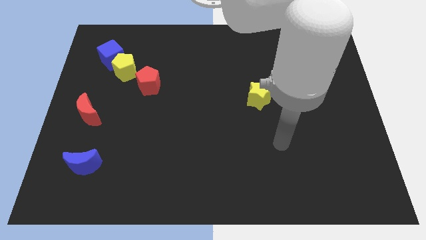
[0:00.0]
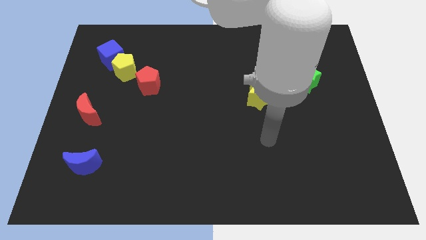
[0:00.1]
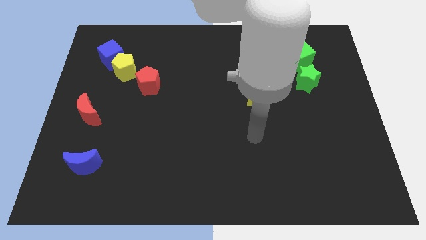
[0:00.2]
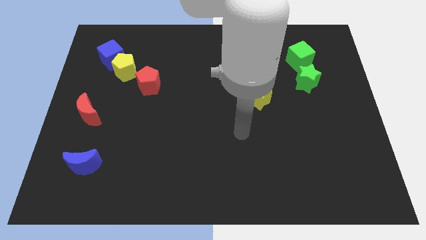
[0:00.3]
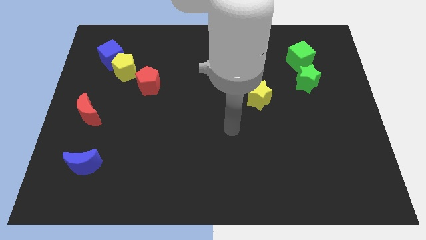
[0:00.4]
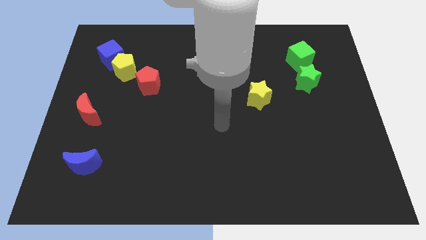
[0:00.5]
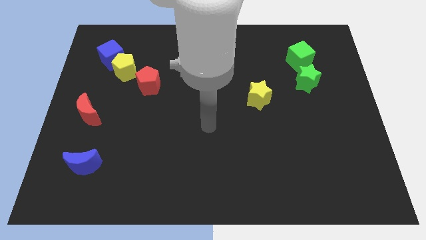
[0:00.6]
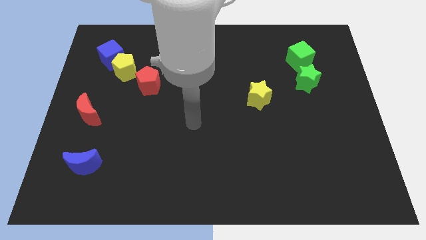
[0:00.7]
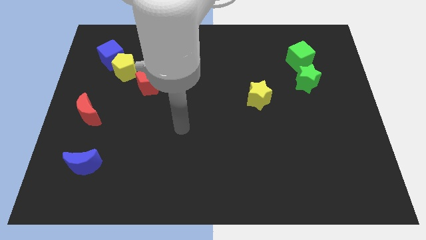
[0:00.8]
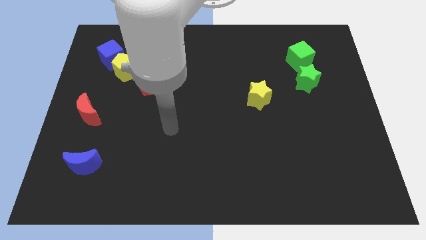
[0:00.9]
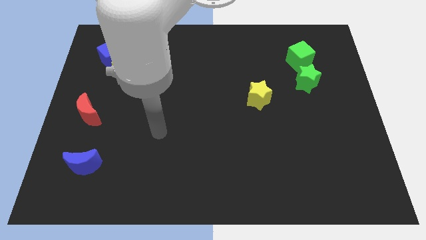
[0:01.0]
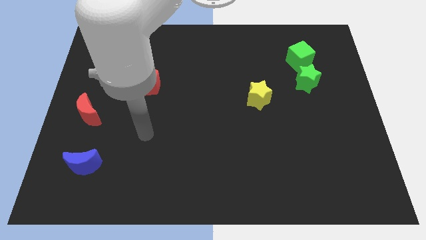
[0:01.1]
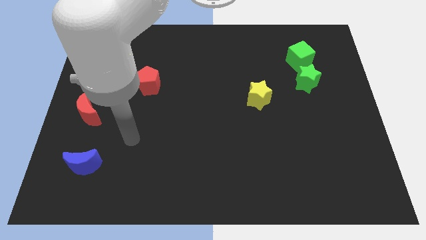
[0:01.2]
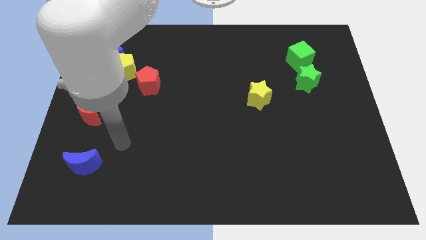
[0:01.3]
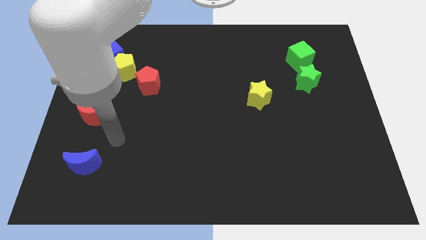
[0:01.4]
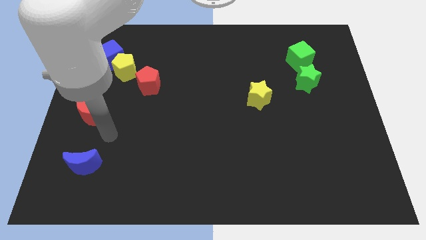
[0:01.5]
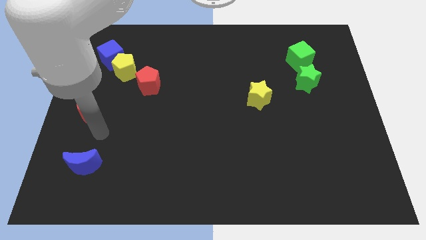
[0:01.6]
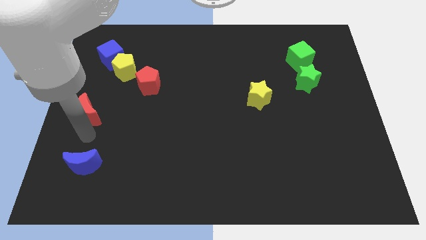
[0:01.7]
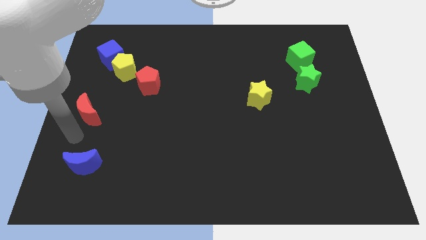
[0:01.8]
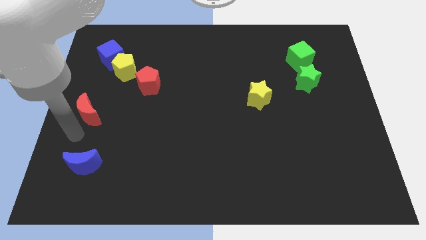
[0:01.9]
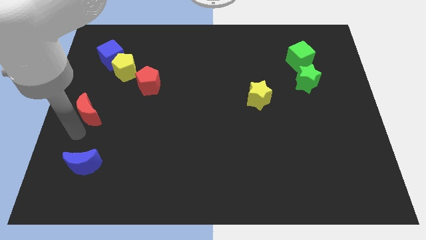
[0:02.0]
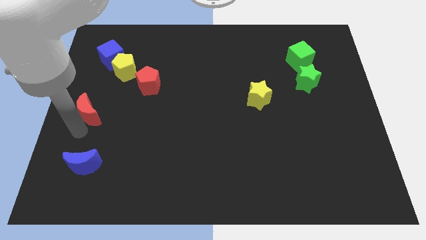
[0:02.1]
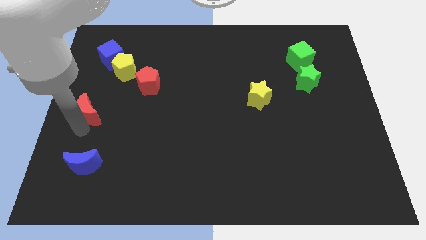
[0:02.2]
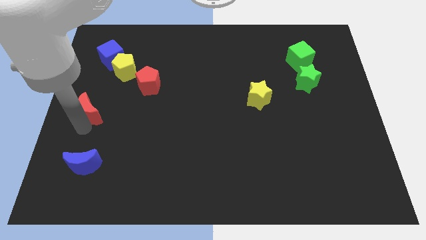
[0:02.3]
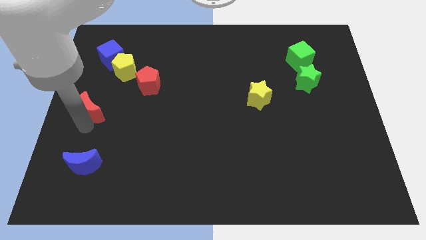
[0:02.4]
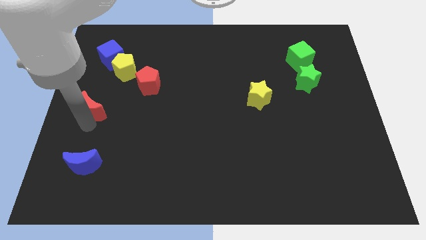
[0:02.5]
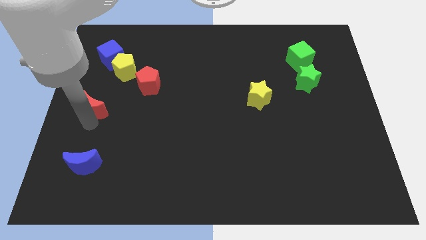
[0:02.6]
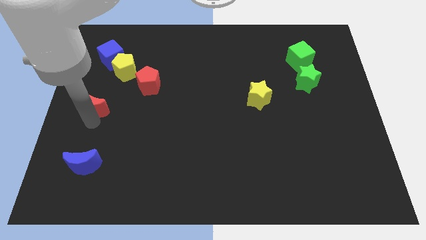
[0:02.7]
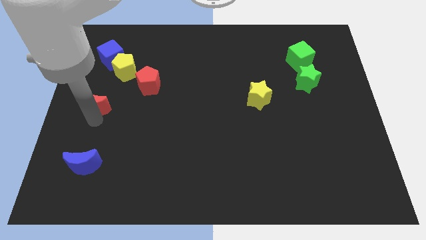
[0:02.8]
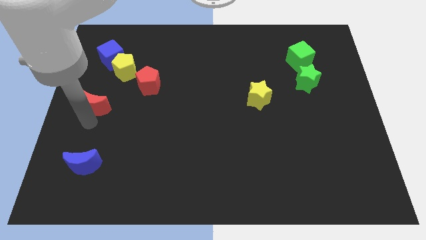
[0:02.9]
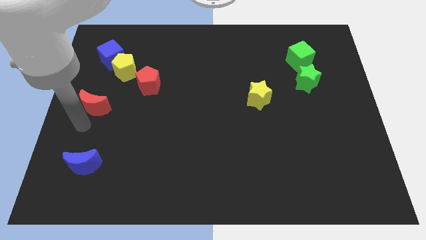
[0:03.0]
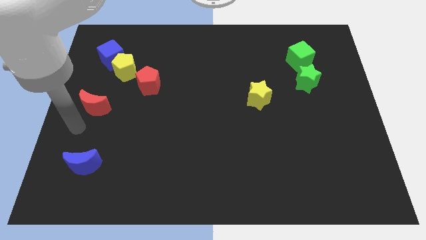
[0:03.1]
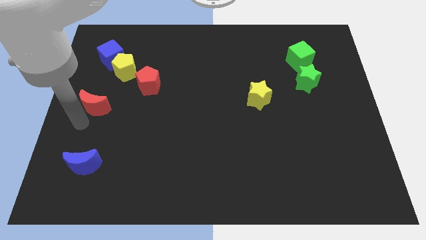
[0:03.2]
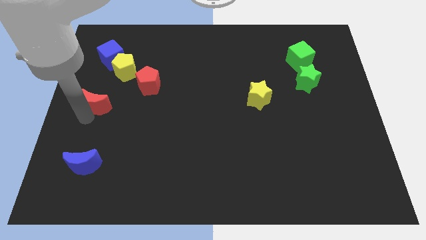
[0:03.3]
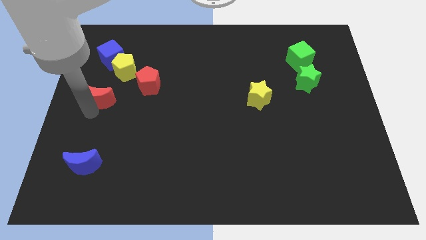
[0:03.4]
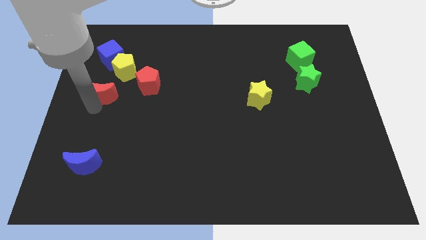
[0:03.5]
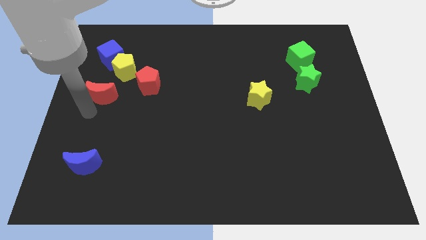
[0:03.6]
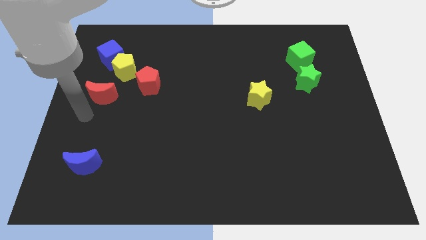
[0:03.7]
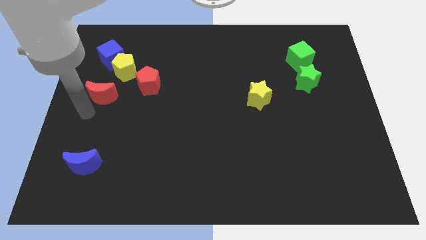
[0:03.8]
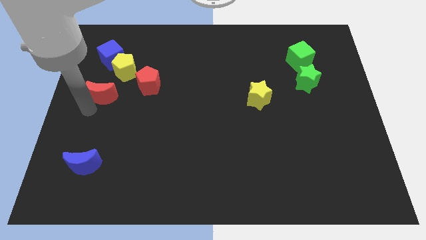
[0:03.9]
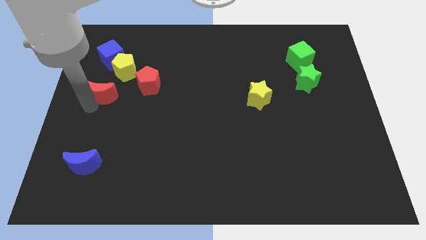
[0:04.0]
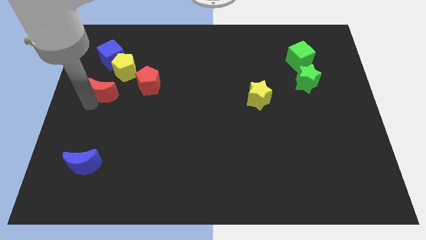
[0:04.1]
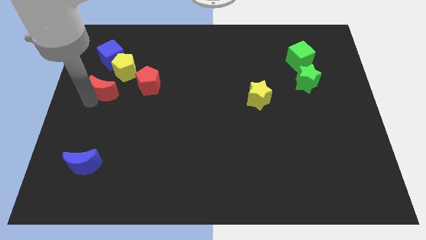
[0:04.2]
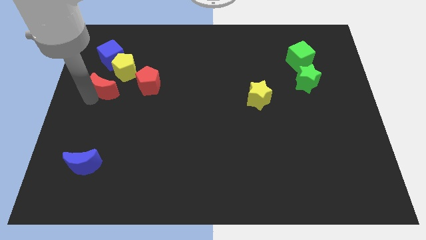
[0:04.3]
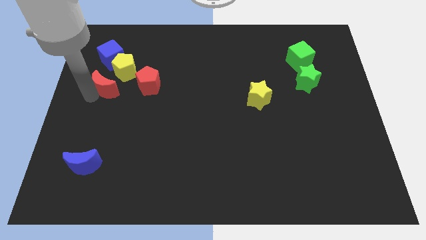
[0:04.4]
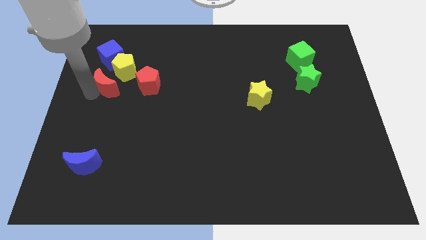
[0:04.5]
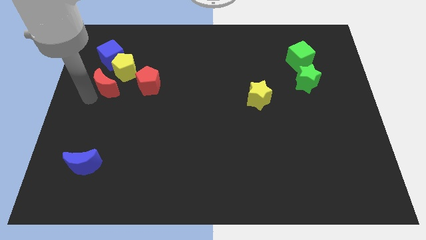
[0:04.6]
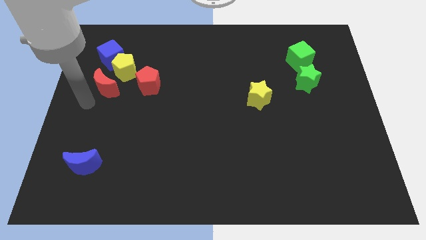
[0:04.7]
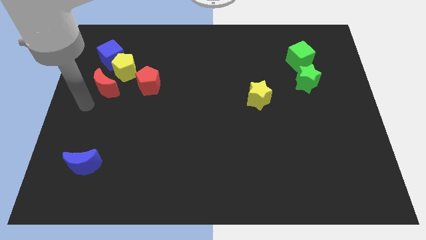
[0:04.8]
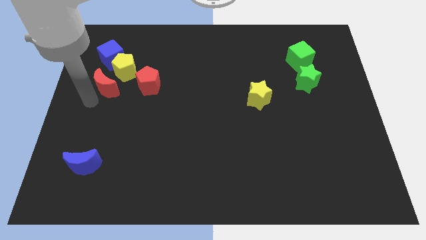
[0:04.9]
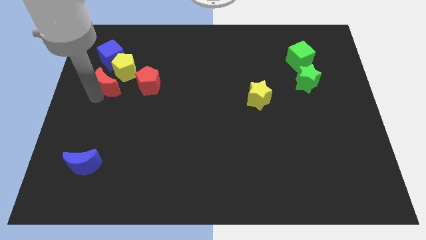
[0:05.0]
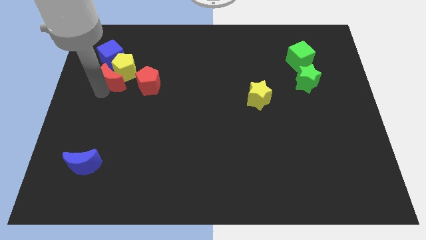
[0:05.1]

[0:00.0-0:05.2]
push the red moon next to the yellow pentagon

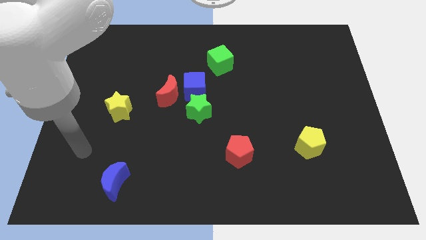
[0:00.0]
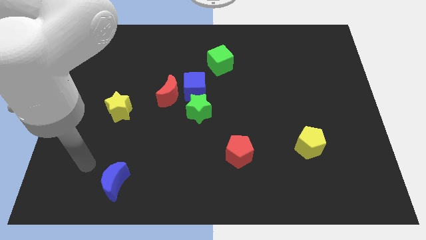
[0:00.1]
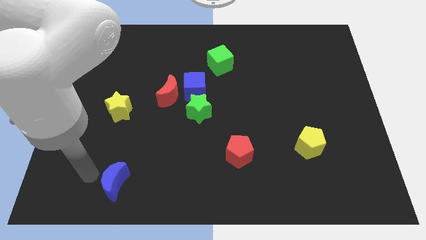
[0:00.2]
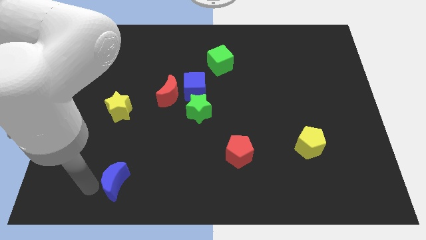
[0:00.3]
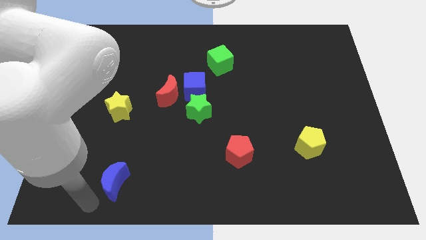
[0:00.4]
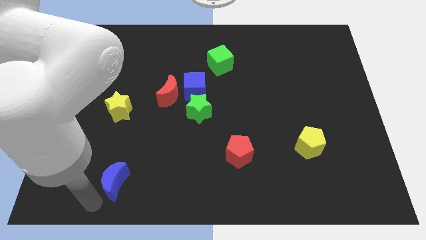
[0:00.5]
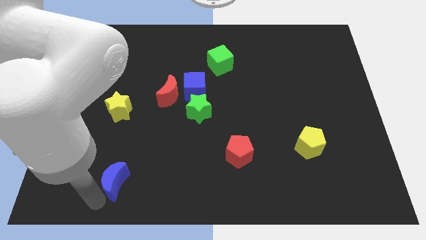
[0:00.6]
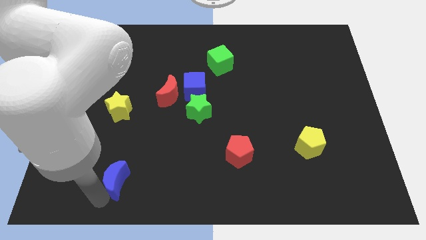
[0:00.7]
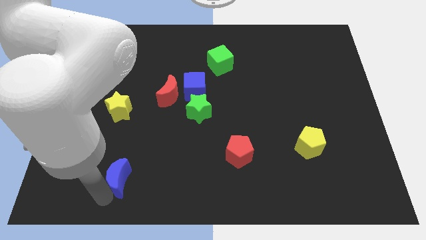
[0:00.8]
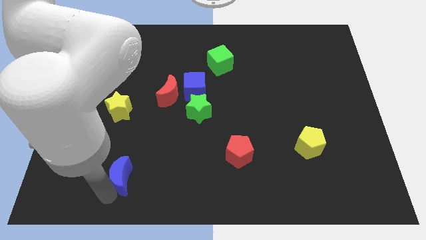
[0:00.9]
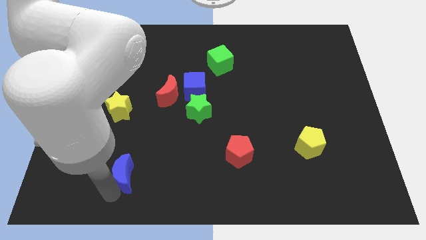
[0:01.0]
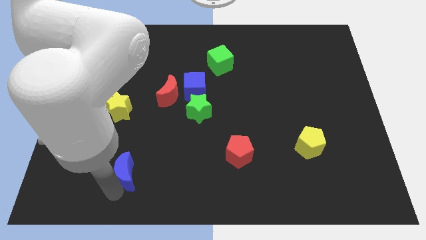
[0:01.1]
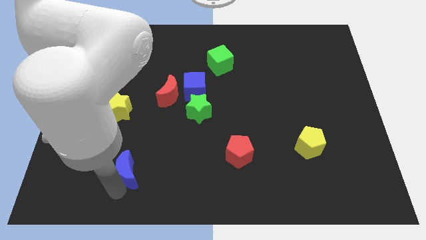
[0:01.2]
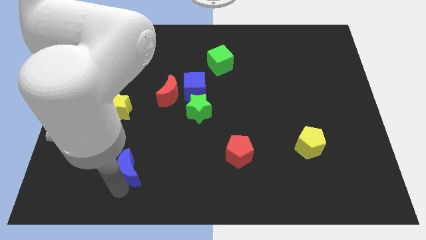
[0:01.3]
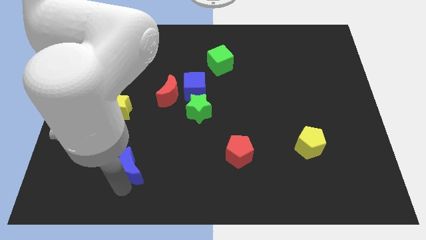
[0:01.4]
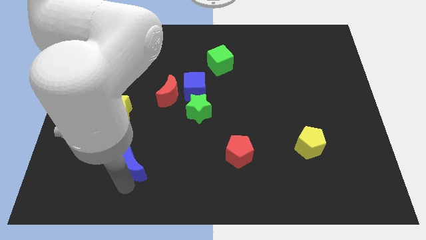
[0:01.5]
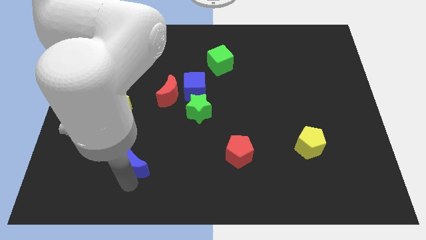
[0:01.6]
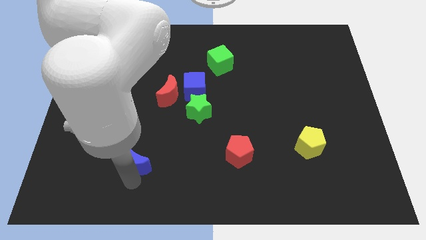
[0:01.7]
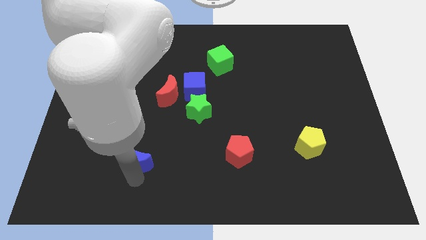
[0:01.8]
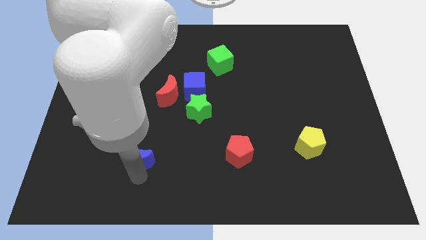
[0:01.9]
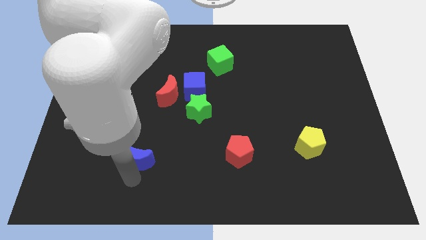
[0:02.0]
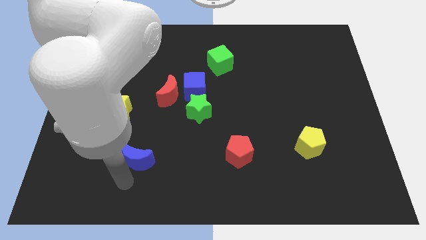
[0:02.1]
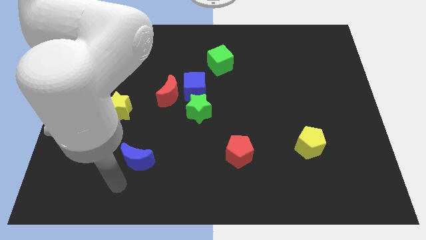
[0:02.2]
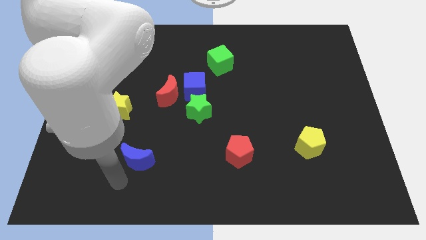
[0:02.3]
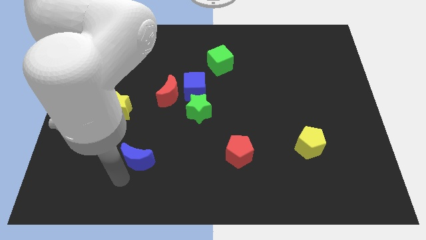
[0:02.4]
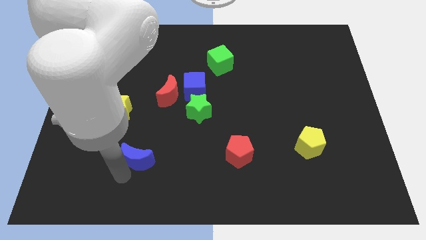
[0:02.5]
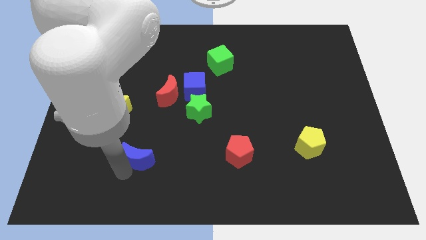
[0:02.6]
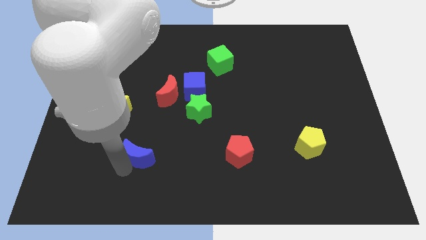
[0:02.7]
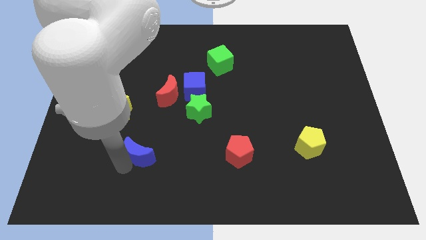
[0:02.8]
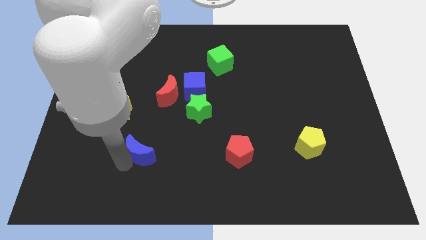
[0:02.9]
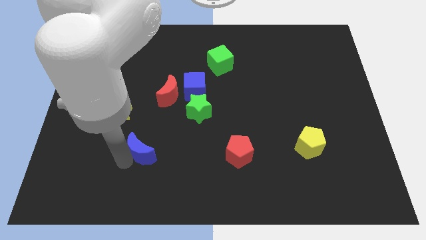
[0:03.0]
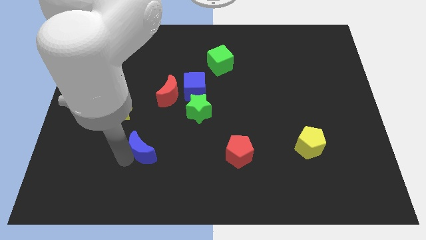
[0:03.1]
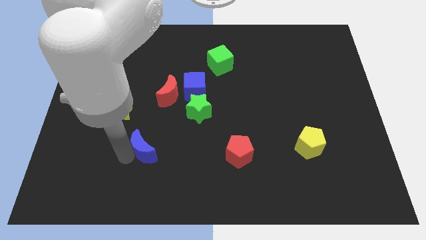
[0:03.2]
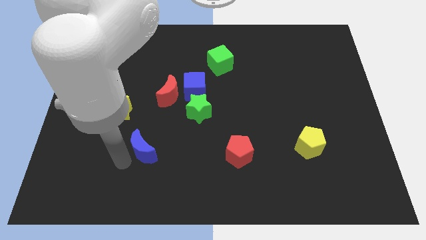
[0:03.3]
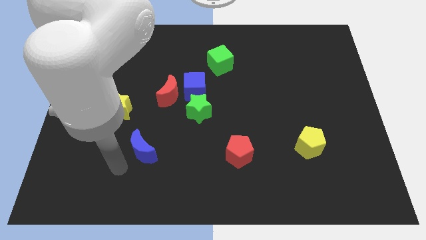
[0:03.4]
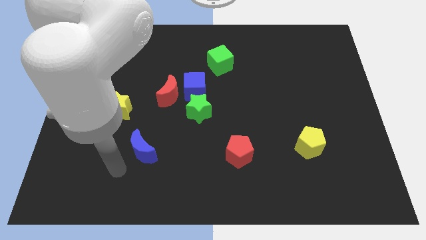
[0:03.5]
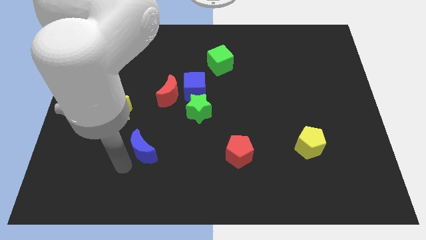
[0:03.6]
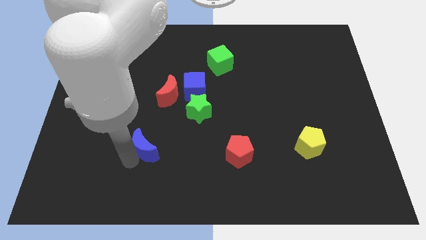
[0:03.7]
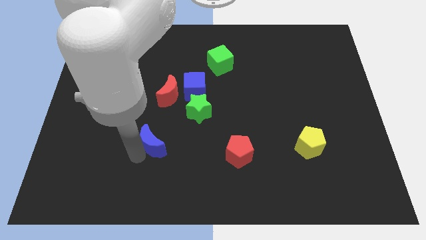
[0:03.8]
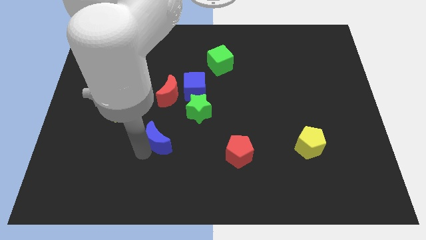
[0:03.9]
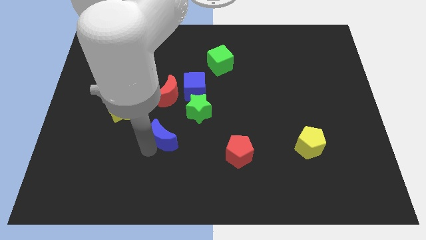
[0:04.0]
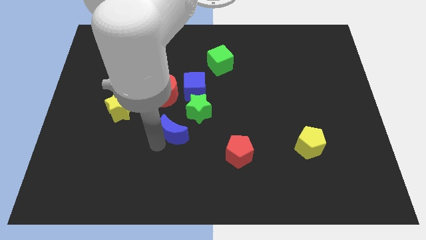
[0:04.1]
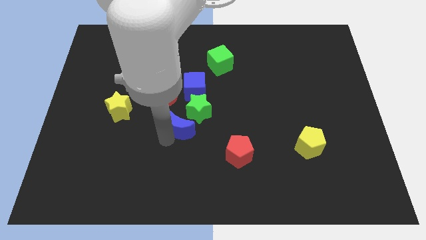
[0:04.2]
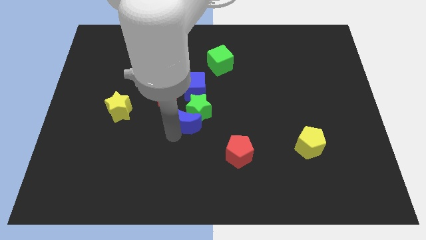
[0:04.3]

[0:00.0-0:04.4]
move the blue moon to the green star
